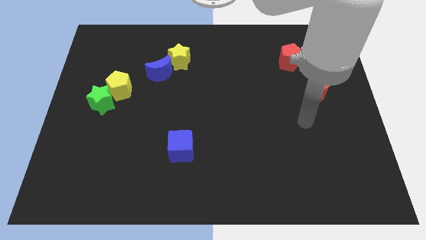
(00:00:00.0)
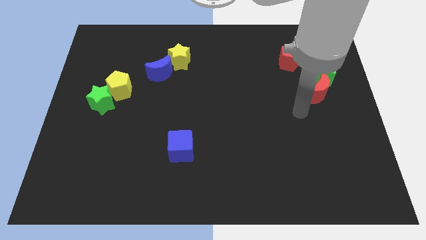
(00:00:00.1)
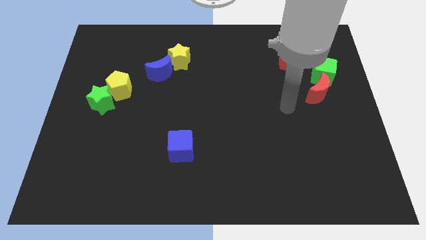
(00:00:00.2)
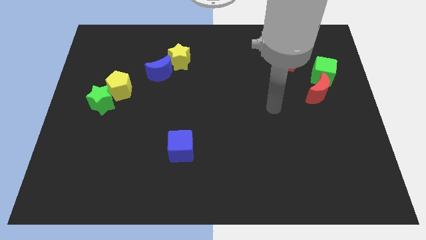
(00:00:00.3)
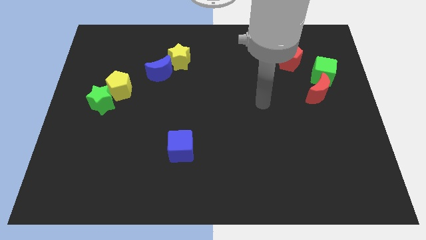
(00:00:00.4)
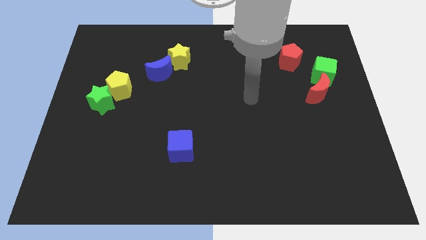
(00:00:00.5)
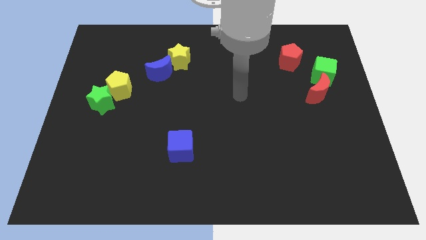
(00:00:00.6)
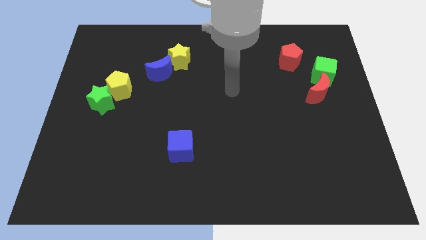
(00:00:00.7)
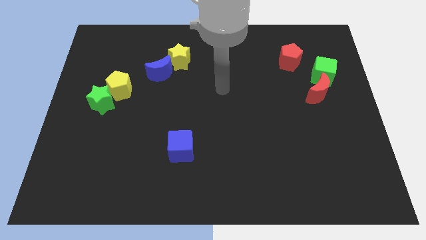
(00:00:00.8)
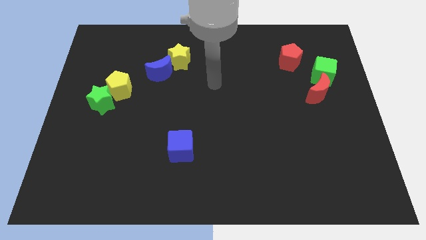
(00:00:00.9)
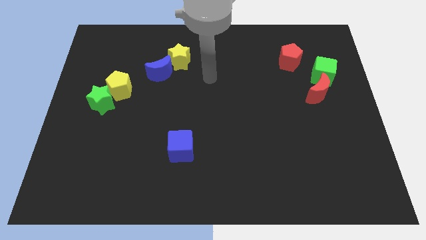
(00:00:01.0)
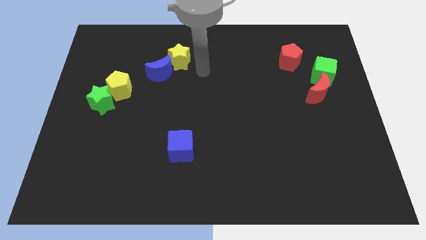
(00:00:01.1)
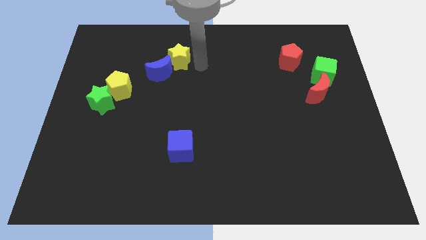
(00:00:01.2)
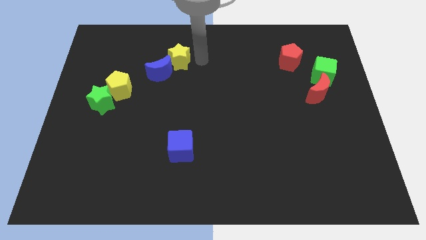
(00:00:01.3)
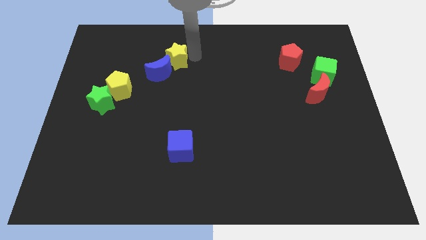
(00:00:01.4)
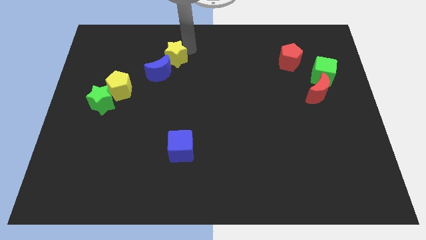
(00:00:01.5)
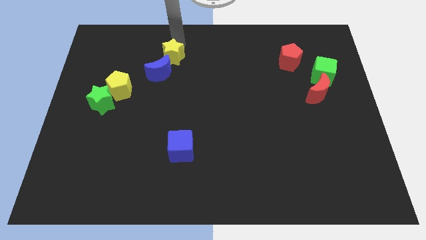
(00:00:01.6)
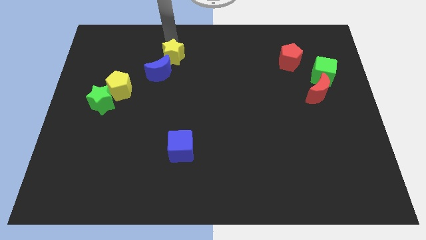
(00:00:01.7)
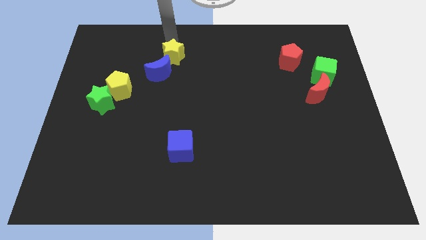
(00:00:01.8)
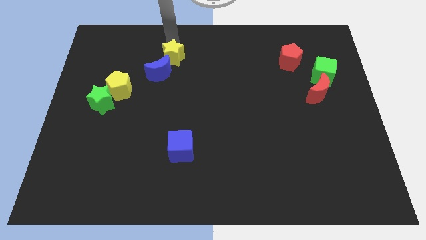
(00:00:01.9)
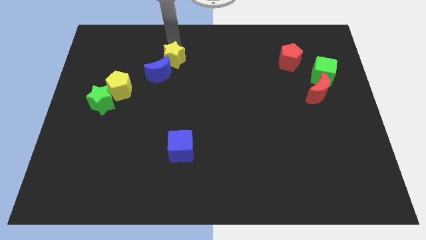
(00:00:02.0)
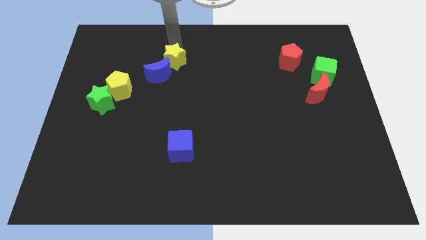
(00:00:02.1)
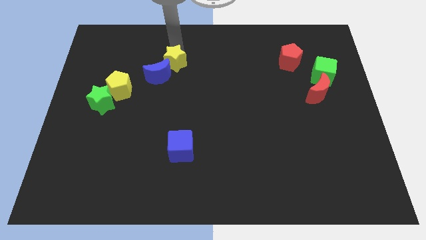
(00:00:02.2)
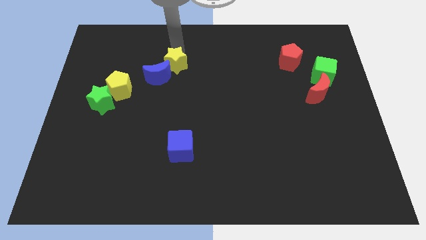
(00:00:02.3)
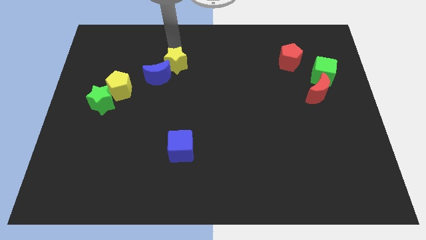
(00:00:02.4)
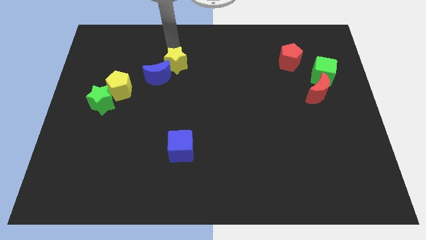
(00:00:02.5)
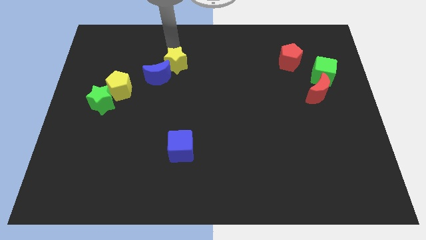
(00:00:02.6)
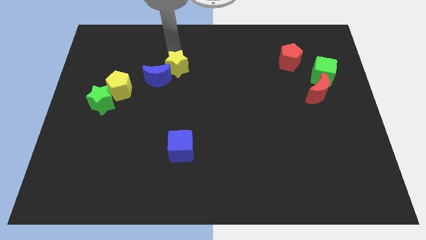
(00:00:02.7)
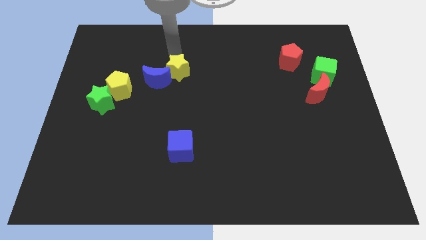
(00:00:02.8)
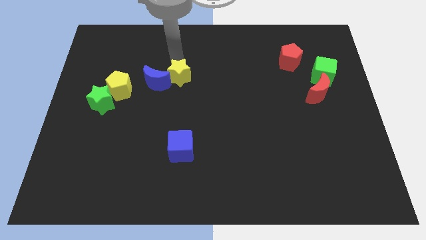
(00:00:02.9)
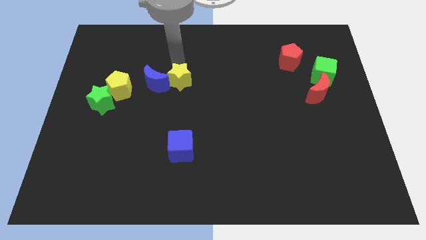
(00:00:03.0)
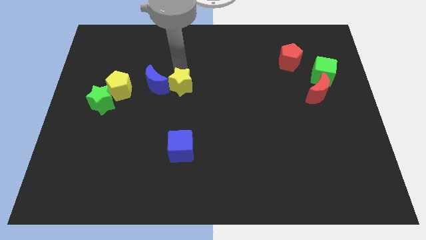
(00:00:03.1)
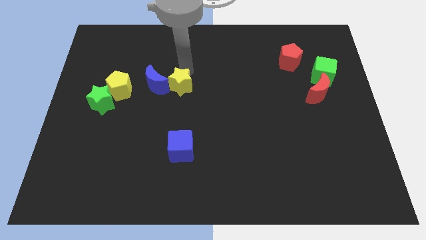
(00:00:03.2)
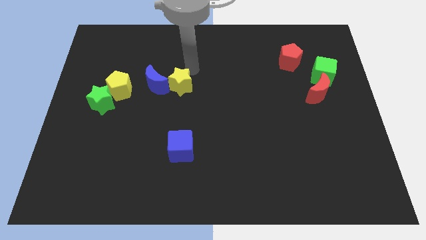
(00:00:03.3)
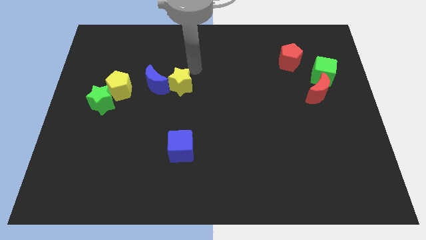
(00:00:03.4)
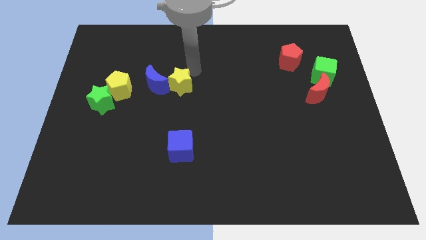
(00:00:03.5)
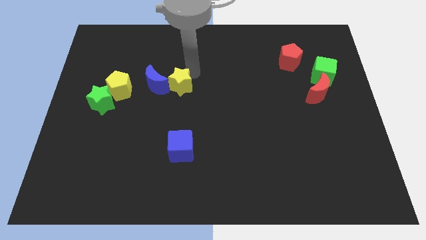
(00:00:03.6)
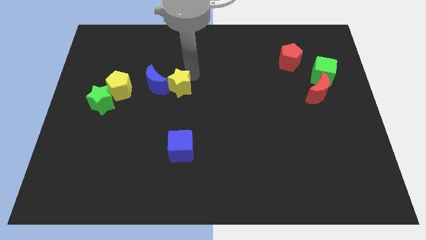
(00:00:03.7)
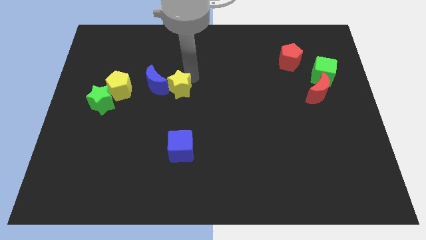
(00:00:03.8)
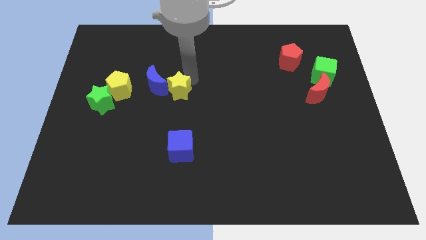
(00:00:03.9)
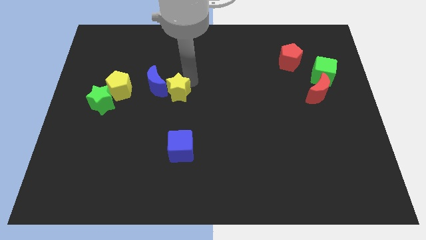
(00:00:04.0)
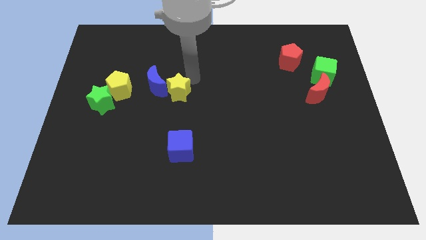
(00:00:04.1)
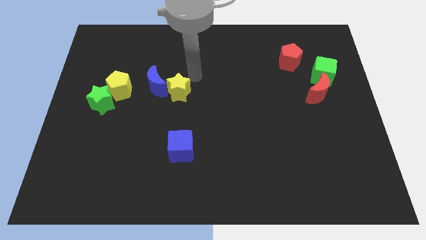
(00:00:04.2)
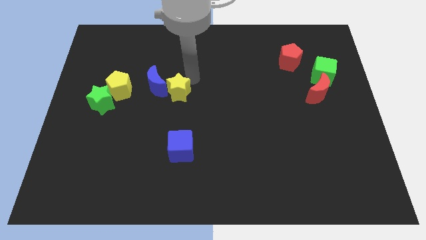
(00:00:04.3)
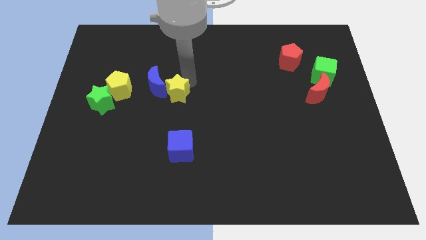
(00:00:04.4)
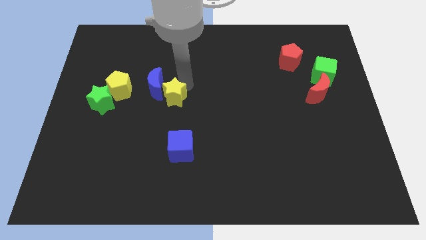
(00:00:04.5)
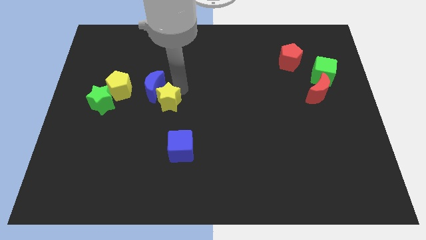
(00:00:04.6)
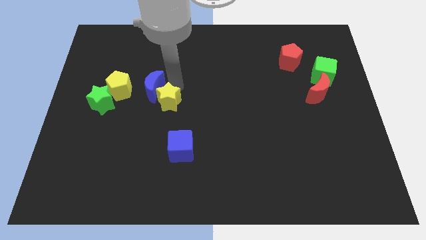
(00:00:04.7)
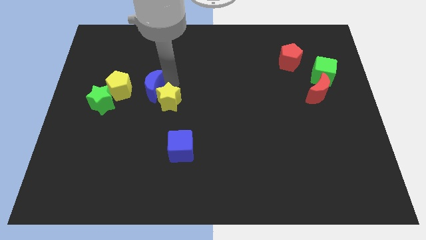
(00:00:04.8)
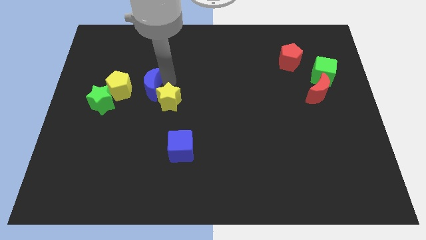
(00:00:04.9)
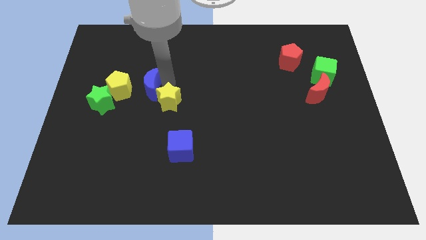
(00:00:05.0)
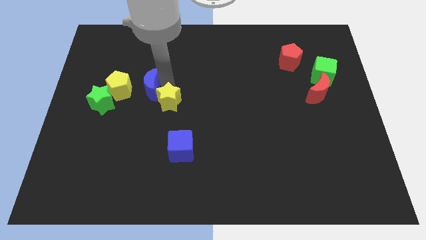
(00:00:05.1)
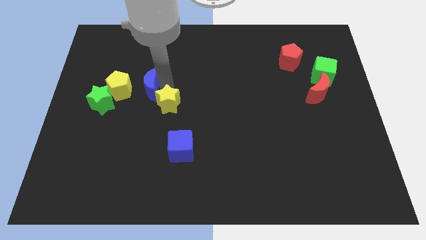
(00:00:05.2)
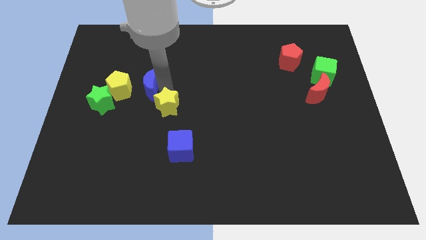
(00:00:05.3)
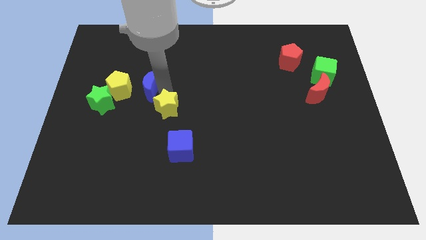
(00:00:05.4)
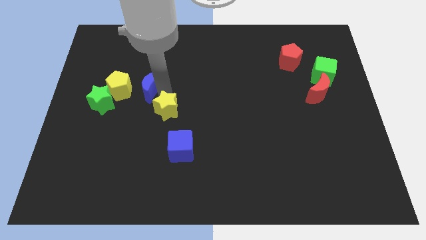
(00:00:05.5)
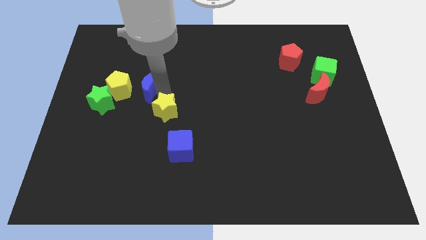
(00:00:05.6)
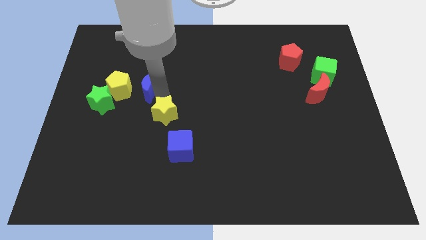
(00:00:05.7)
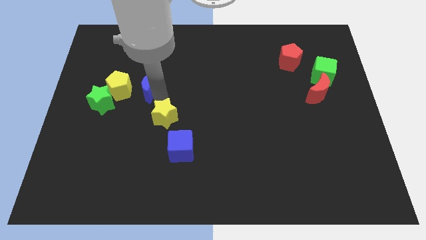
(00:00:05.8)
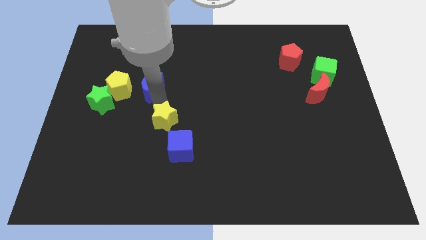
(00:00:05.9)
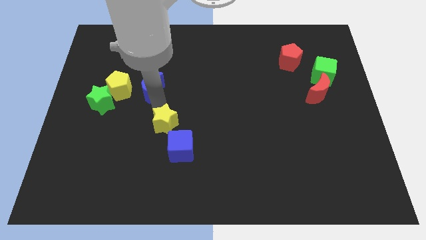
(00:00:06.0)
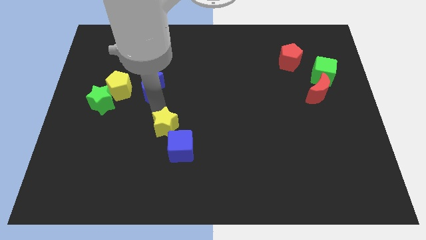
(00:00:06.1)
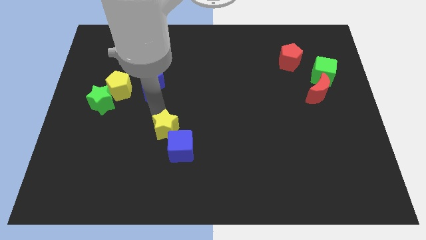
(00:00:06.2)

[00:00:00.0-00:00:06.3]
move the yellow star to the blue cube

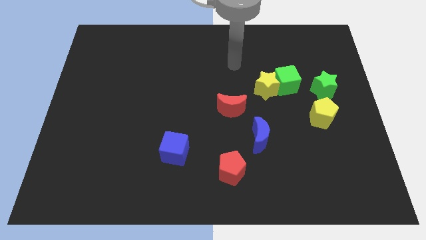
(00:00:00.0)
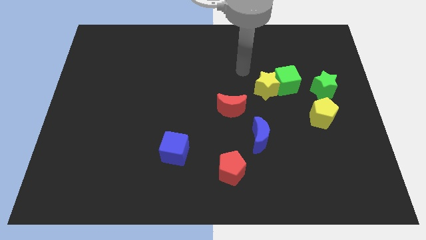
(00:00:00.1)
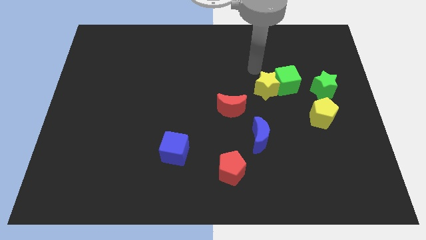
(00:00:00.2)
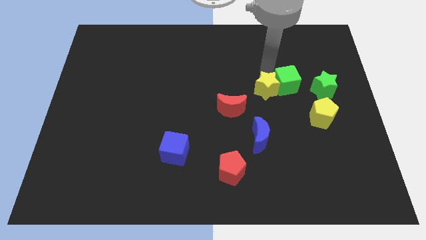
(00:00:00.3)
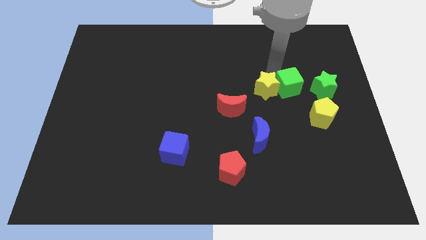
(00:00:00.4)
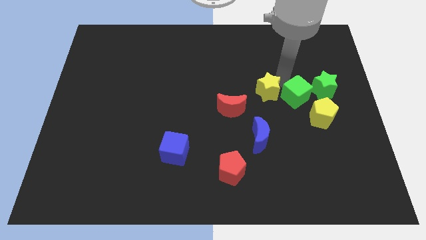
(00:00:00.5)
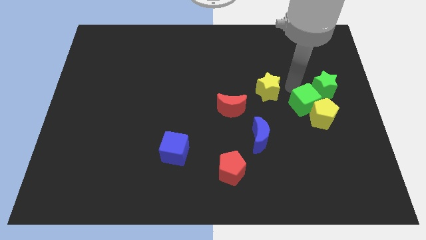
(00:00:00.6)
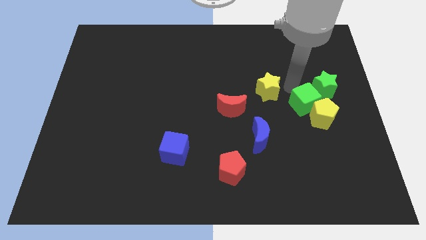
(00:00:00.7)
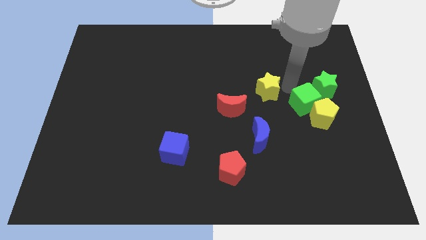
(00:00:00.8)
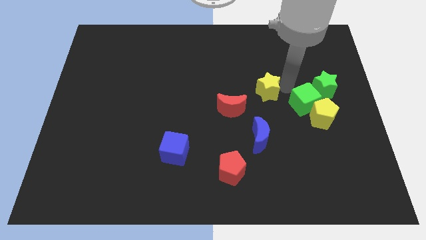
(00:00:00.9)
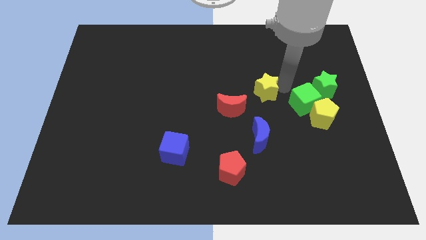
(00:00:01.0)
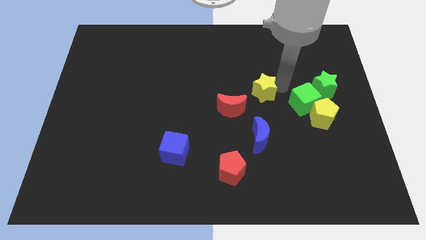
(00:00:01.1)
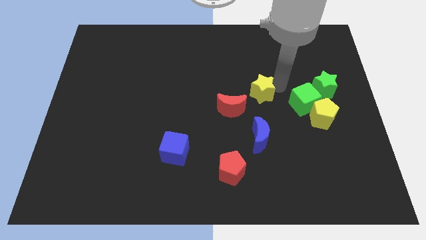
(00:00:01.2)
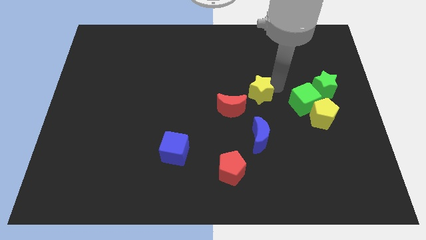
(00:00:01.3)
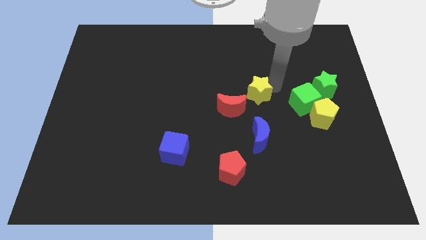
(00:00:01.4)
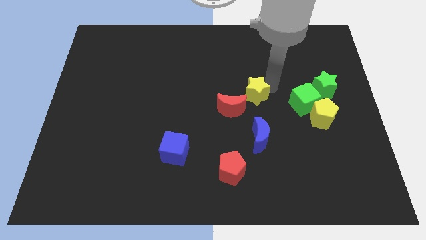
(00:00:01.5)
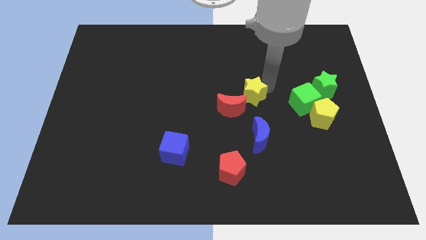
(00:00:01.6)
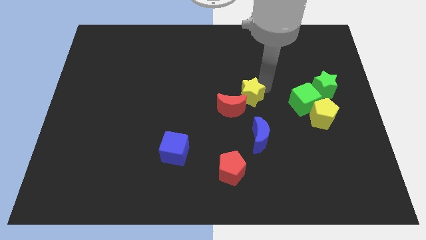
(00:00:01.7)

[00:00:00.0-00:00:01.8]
move the yellow star close to the red moon
